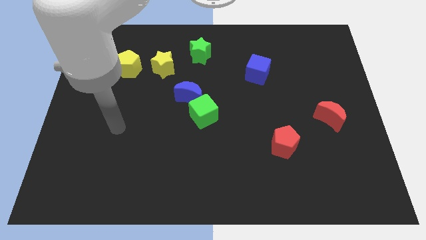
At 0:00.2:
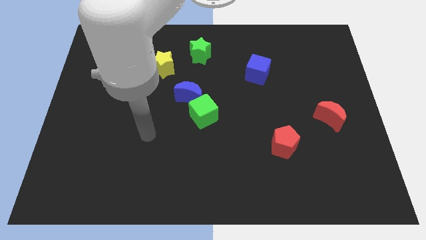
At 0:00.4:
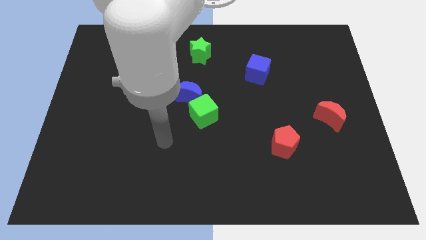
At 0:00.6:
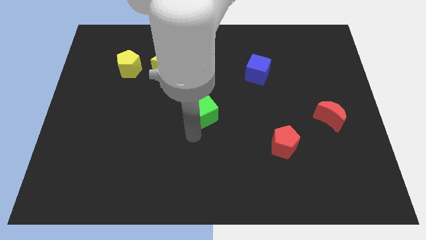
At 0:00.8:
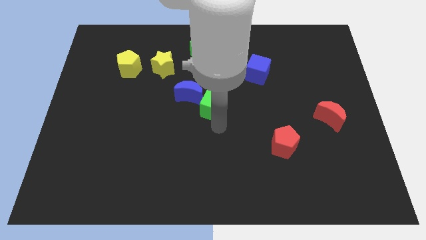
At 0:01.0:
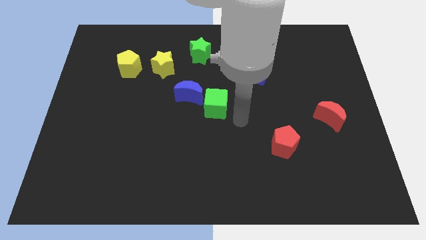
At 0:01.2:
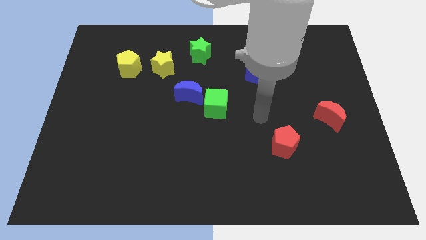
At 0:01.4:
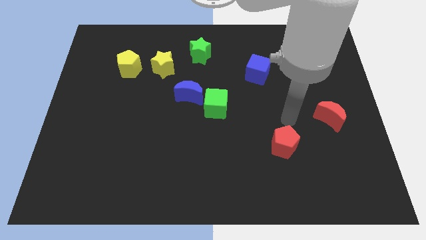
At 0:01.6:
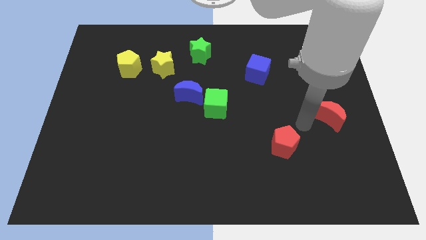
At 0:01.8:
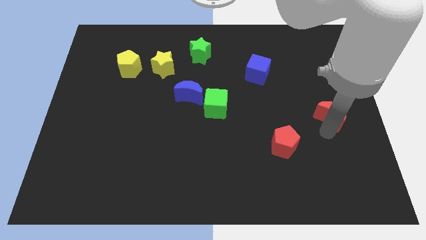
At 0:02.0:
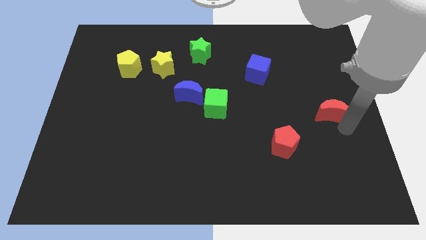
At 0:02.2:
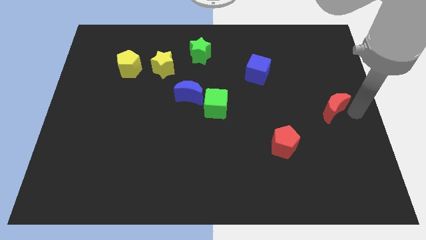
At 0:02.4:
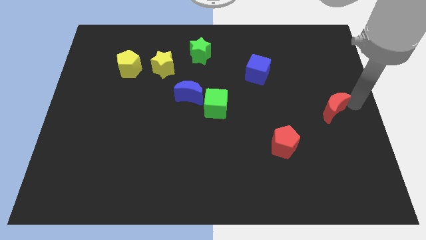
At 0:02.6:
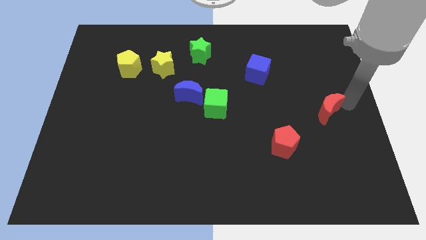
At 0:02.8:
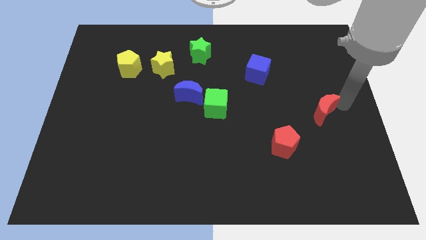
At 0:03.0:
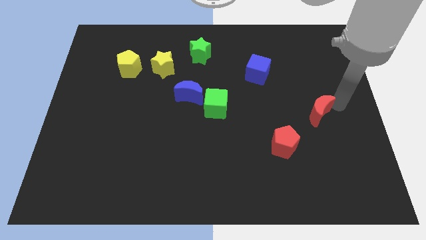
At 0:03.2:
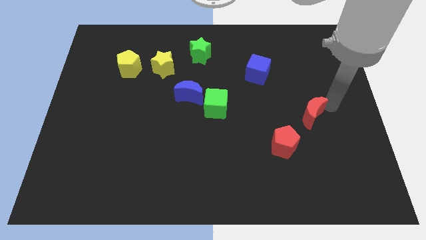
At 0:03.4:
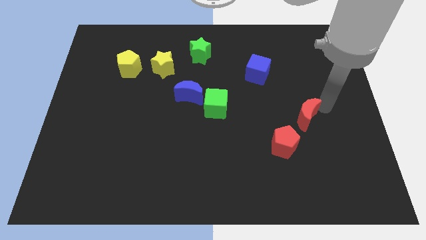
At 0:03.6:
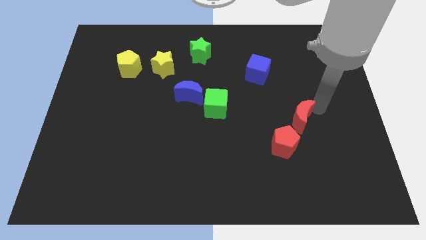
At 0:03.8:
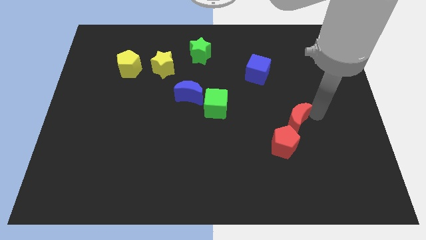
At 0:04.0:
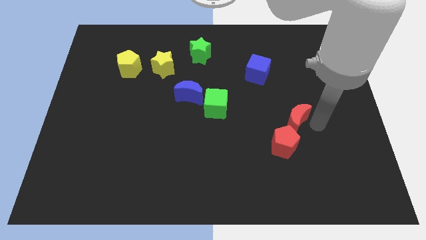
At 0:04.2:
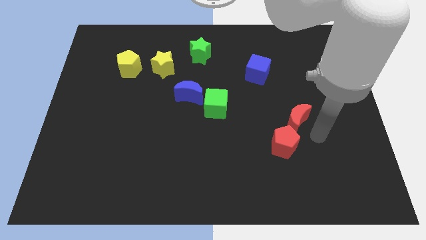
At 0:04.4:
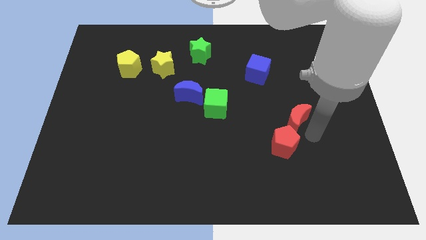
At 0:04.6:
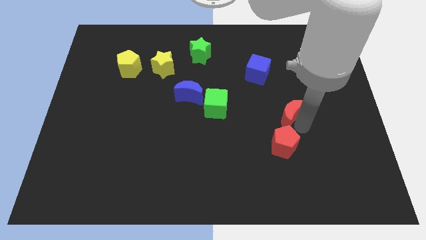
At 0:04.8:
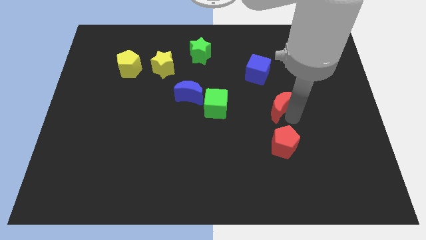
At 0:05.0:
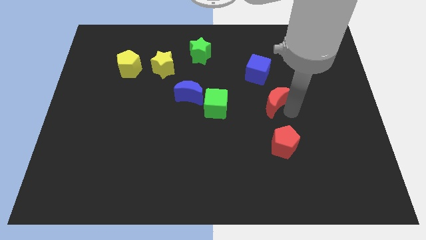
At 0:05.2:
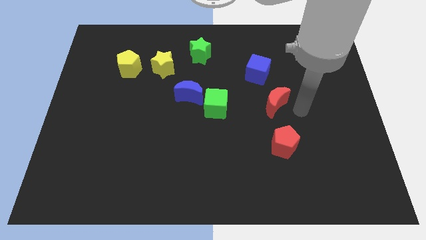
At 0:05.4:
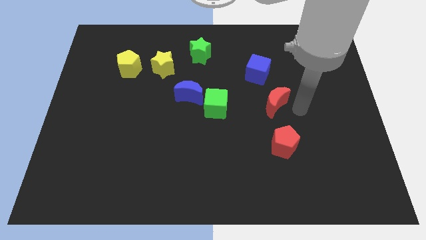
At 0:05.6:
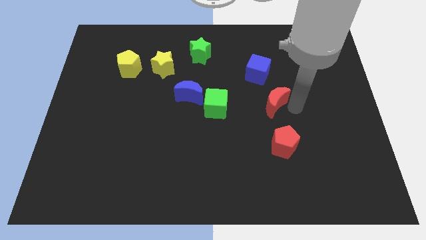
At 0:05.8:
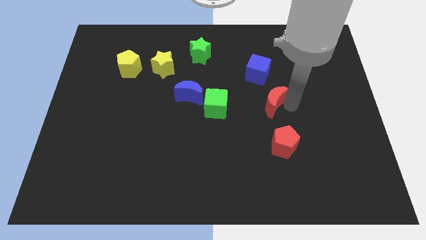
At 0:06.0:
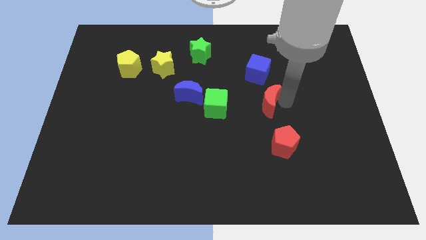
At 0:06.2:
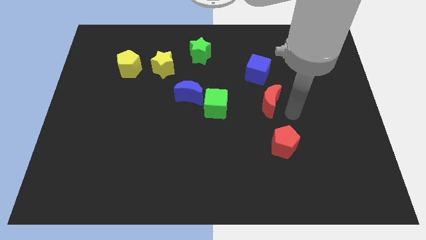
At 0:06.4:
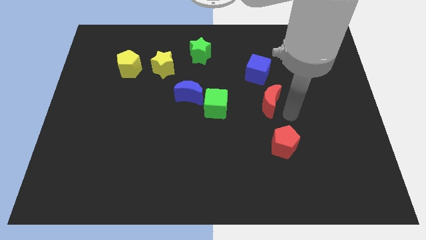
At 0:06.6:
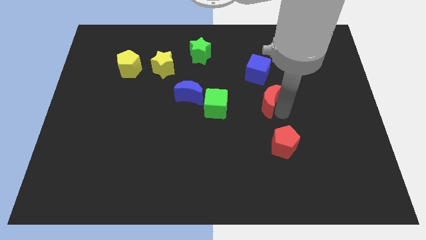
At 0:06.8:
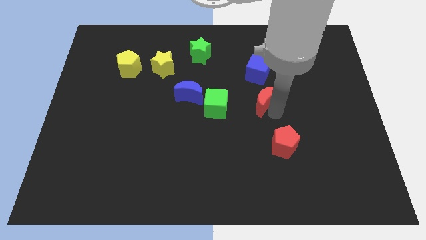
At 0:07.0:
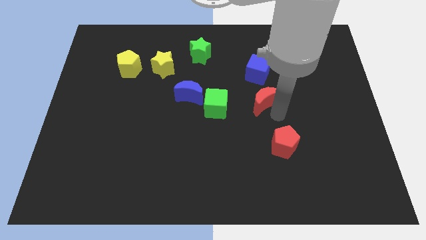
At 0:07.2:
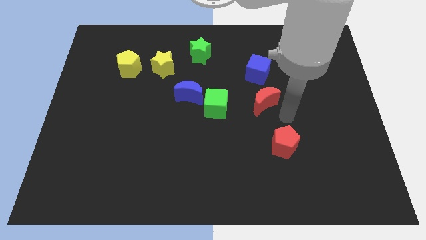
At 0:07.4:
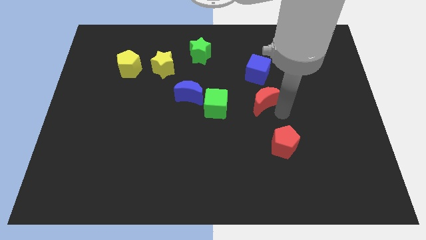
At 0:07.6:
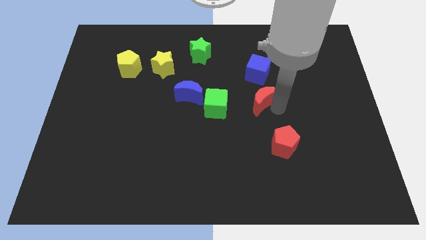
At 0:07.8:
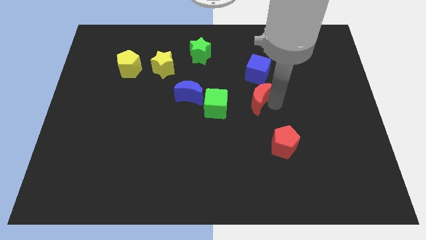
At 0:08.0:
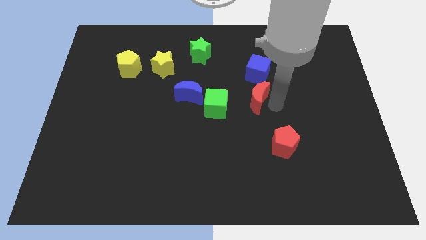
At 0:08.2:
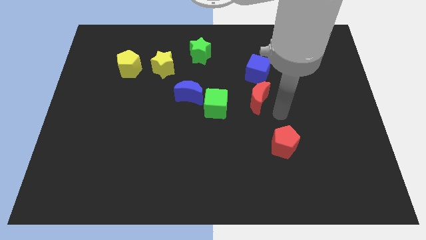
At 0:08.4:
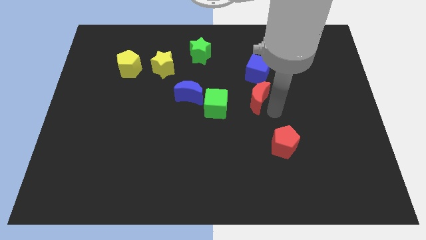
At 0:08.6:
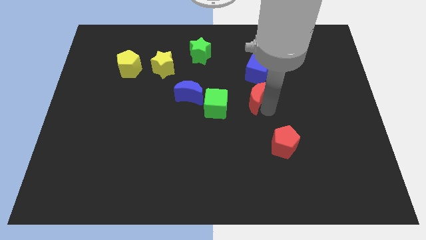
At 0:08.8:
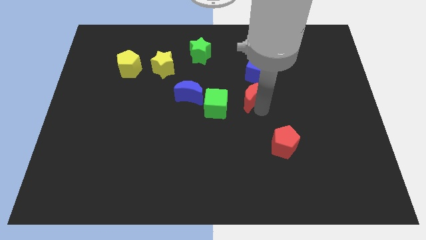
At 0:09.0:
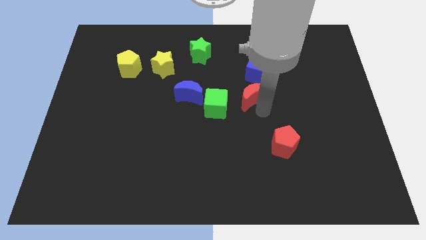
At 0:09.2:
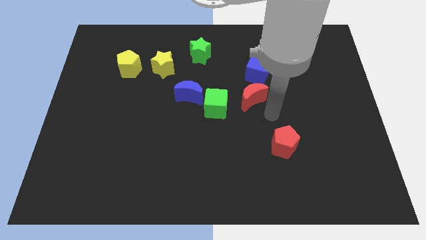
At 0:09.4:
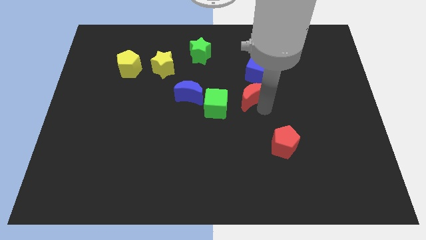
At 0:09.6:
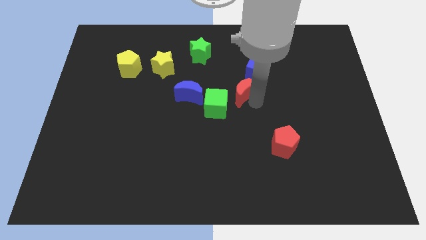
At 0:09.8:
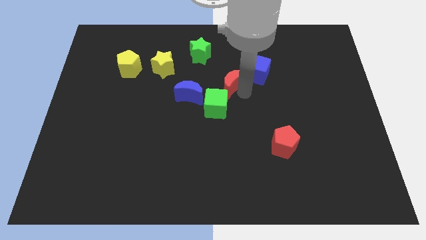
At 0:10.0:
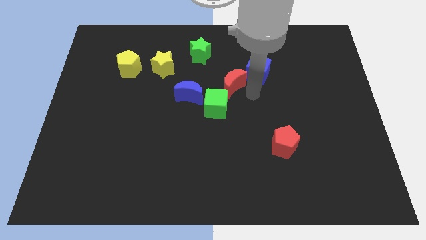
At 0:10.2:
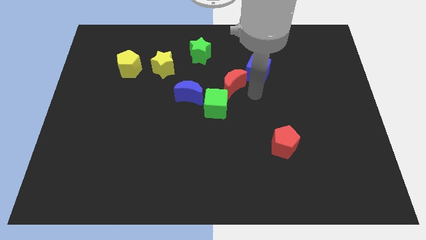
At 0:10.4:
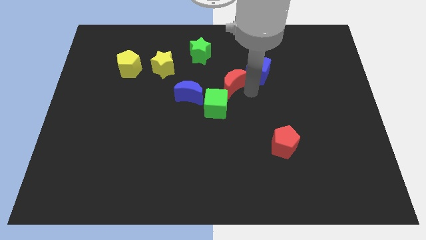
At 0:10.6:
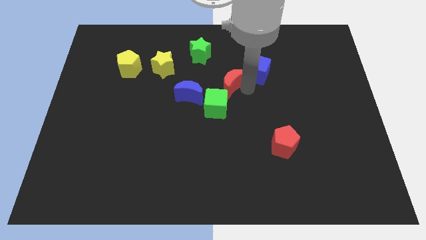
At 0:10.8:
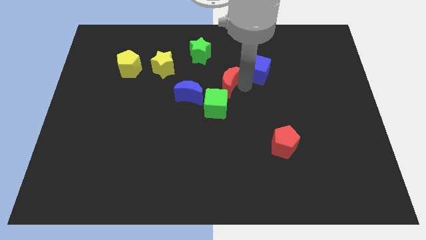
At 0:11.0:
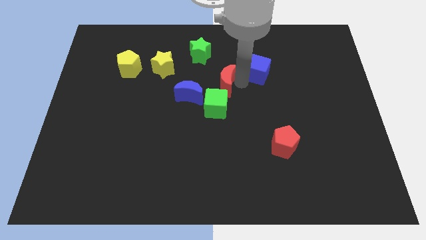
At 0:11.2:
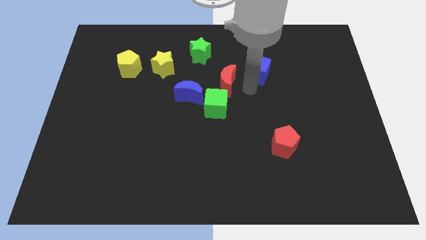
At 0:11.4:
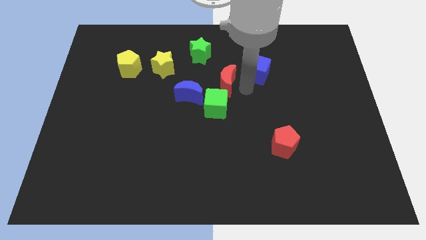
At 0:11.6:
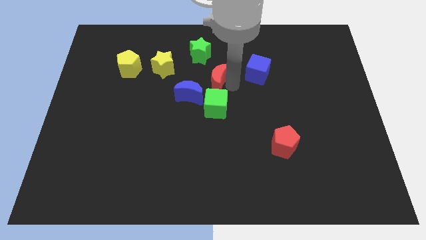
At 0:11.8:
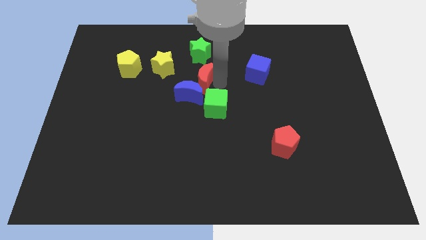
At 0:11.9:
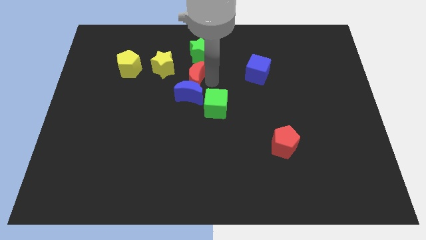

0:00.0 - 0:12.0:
push the red moon diagonally up and to the left of the blue moon

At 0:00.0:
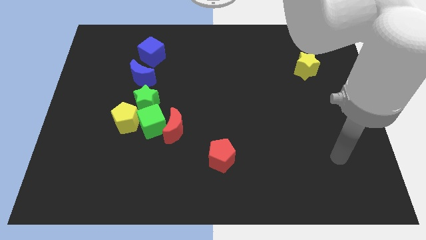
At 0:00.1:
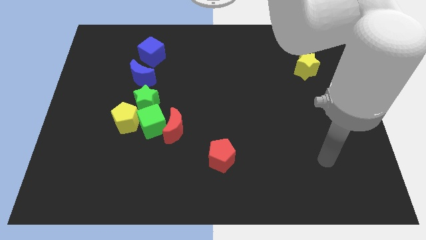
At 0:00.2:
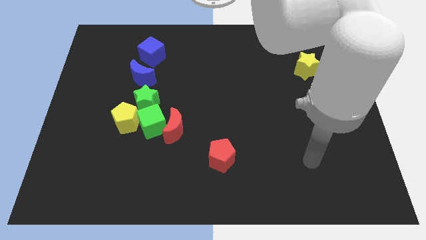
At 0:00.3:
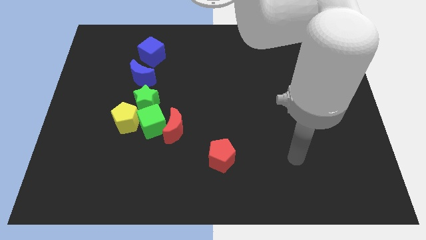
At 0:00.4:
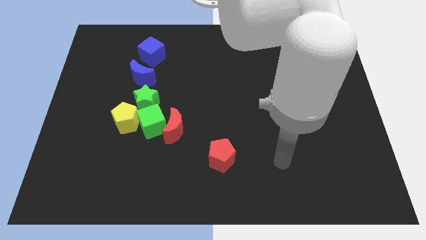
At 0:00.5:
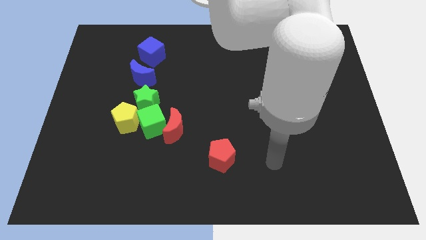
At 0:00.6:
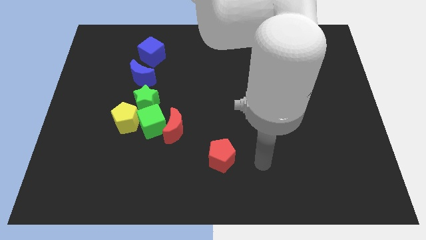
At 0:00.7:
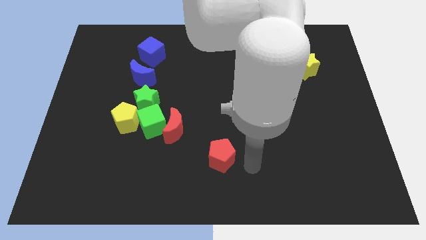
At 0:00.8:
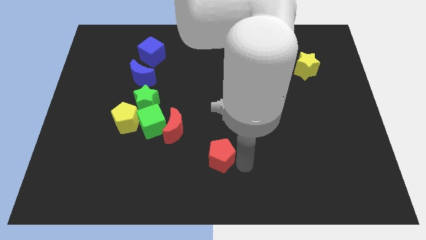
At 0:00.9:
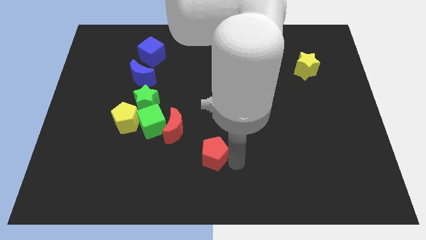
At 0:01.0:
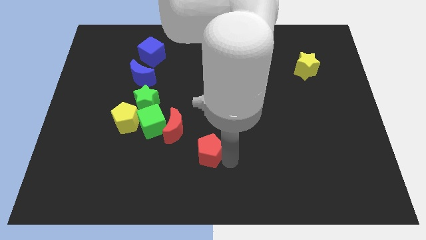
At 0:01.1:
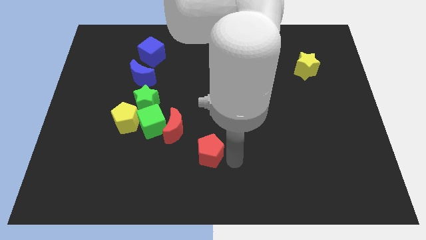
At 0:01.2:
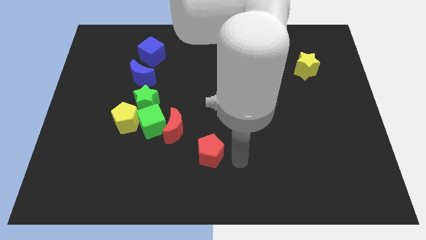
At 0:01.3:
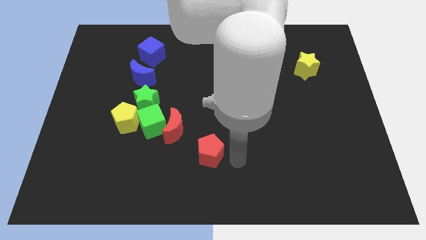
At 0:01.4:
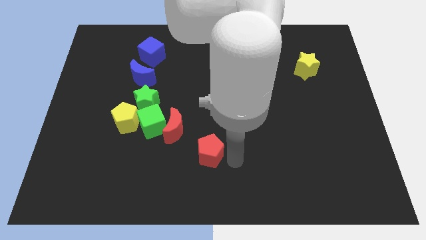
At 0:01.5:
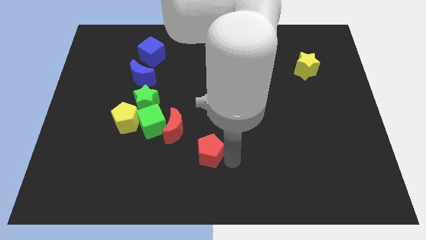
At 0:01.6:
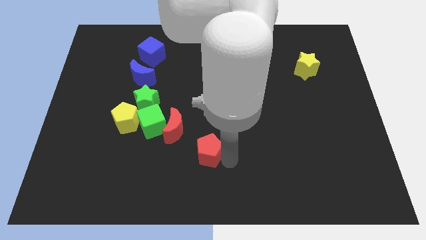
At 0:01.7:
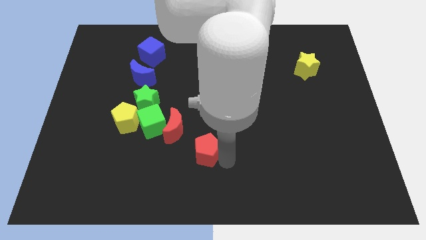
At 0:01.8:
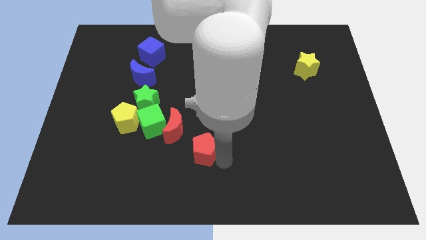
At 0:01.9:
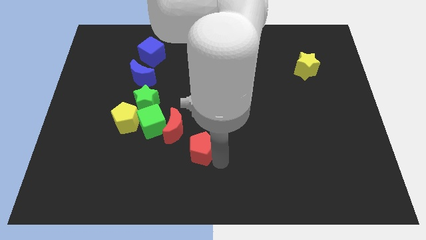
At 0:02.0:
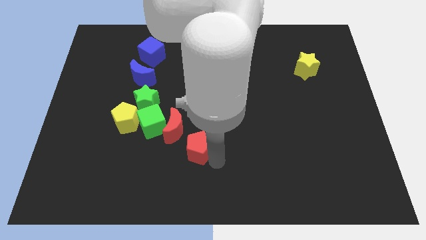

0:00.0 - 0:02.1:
move the red pentagon to the bottom right side of the green cube
